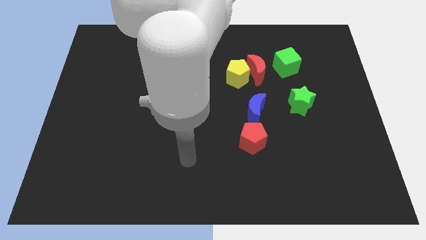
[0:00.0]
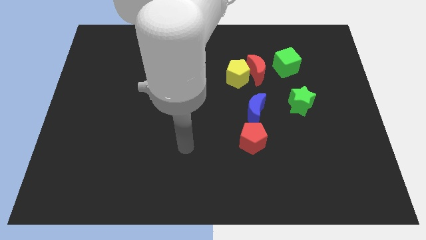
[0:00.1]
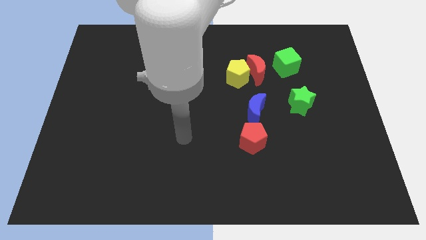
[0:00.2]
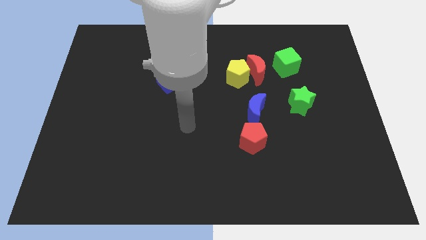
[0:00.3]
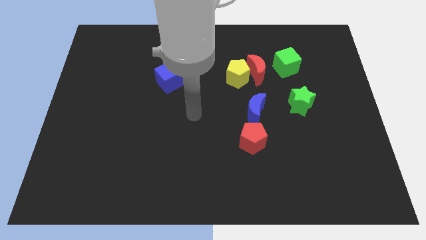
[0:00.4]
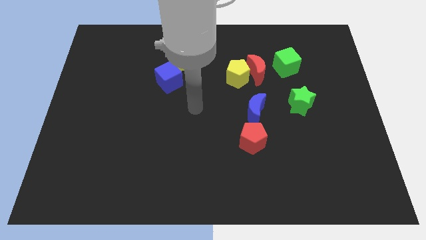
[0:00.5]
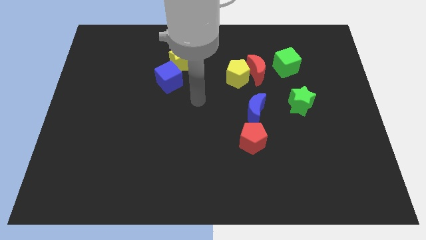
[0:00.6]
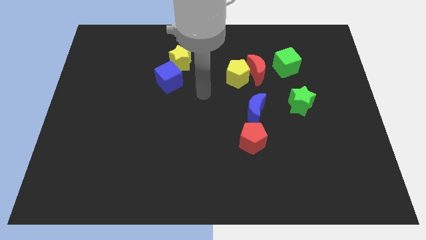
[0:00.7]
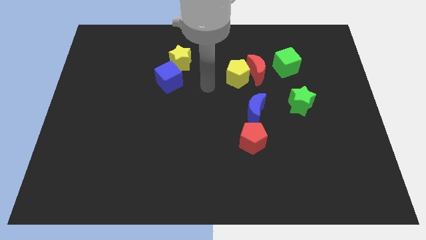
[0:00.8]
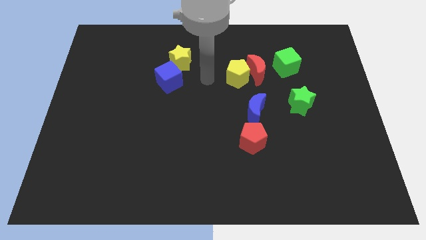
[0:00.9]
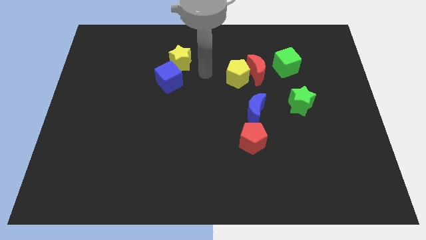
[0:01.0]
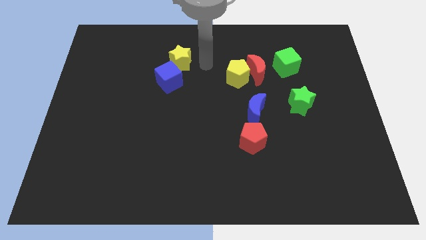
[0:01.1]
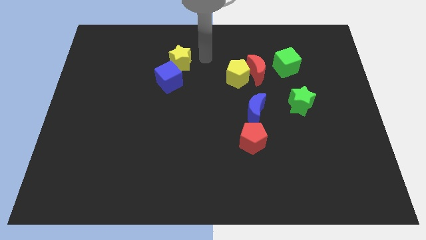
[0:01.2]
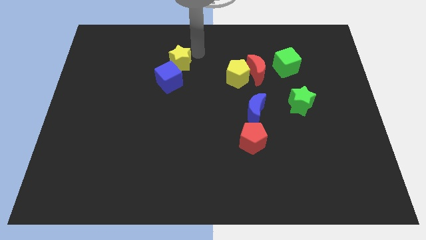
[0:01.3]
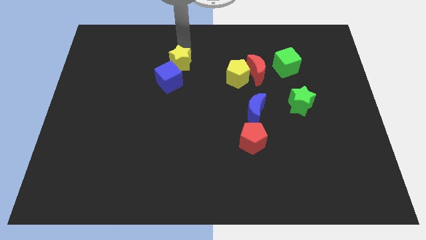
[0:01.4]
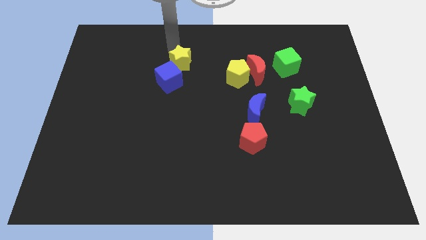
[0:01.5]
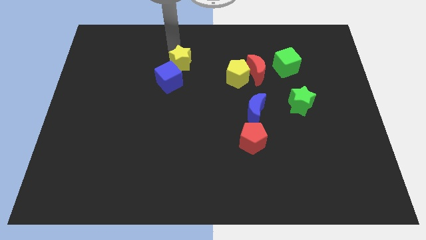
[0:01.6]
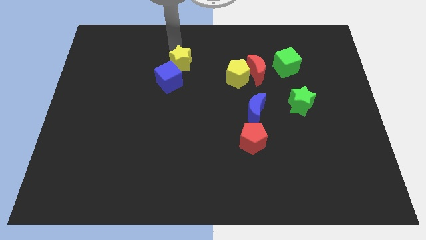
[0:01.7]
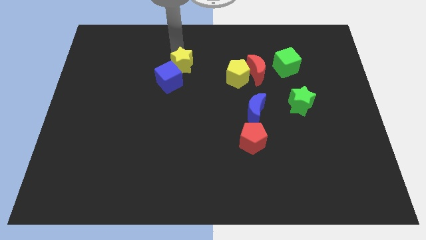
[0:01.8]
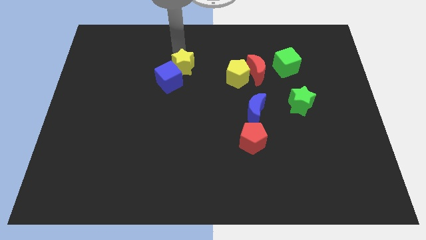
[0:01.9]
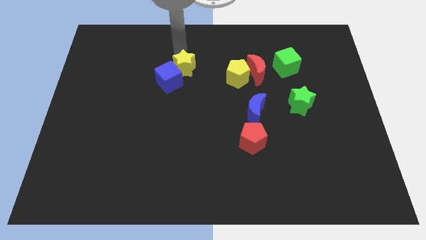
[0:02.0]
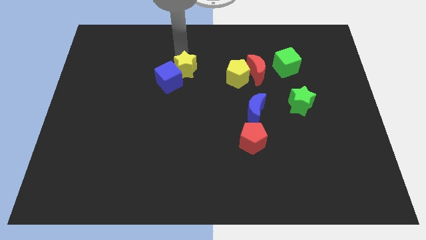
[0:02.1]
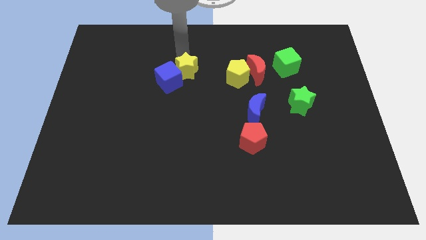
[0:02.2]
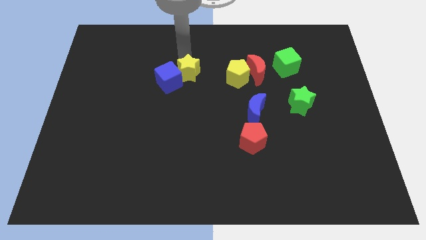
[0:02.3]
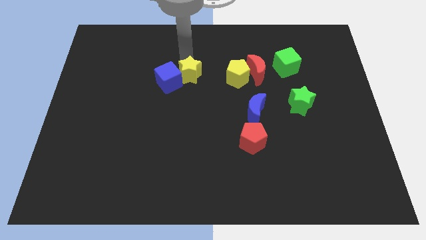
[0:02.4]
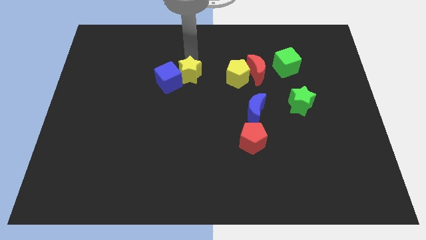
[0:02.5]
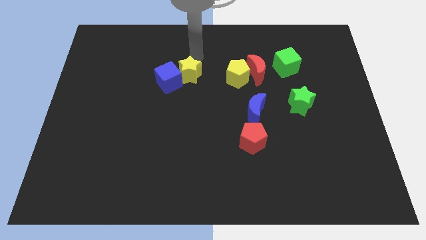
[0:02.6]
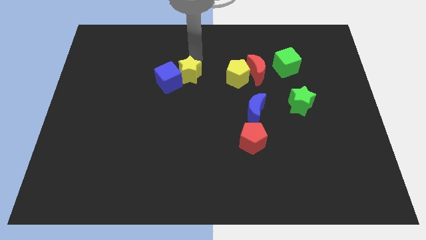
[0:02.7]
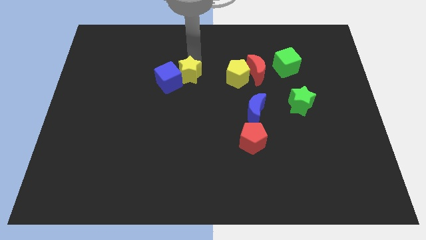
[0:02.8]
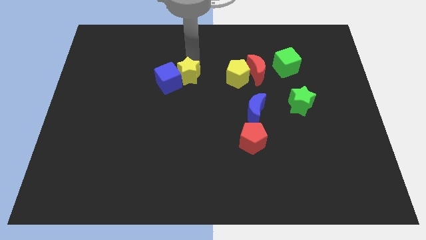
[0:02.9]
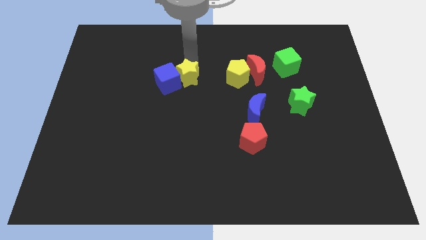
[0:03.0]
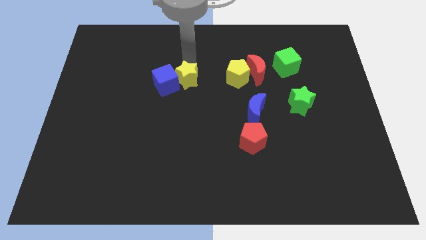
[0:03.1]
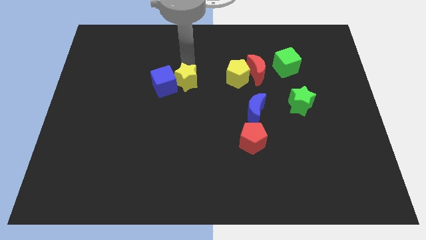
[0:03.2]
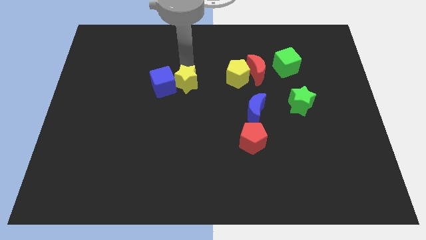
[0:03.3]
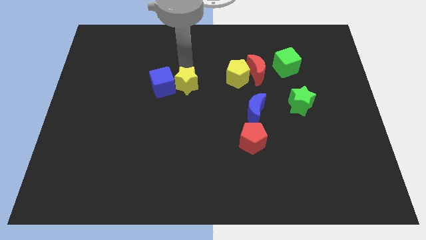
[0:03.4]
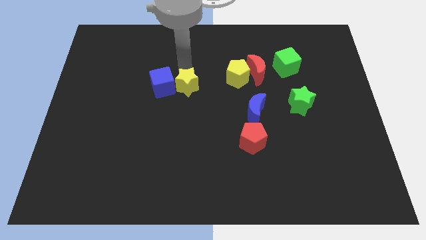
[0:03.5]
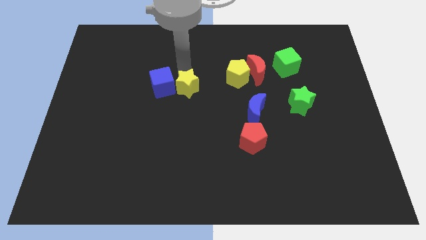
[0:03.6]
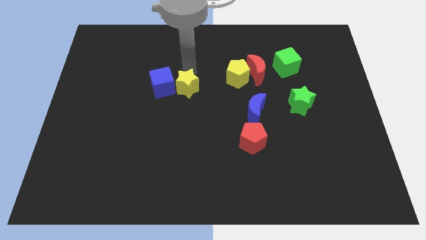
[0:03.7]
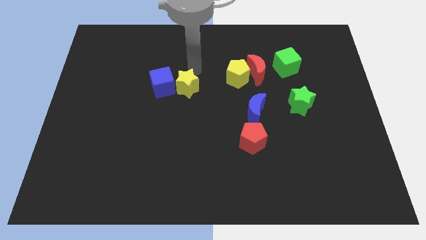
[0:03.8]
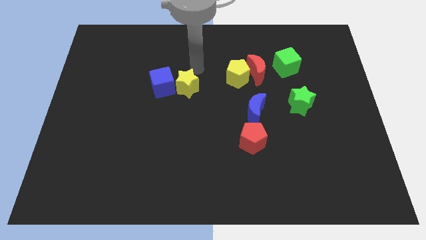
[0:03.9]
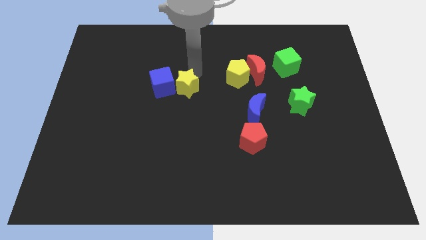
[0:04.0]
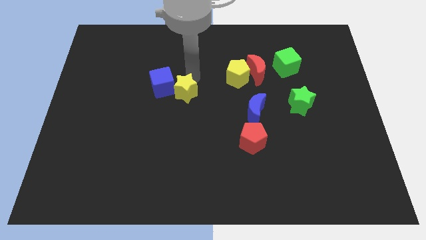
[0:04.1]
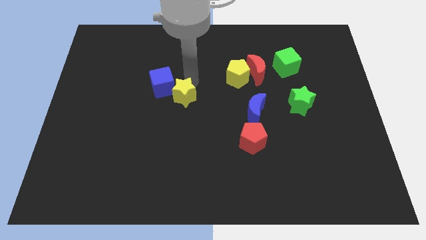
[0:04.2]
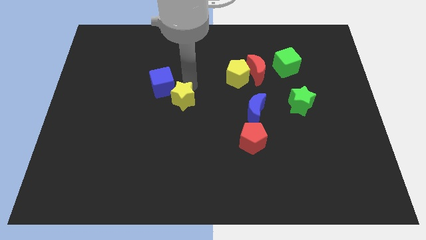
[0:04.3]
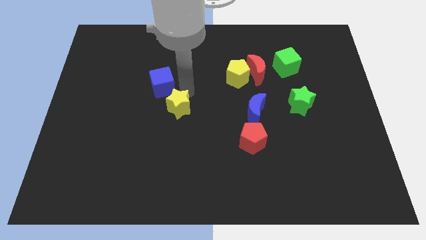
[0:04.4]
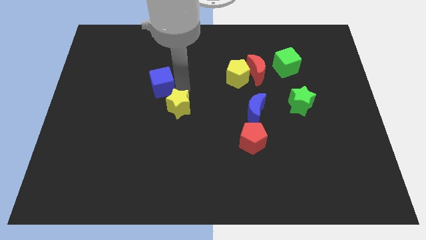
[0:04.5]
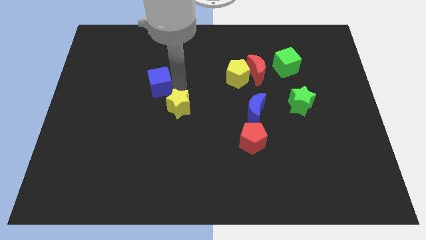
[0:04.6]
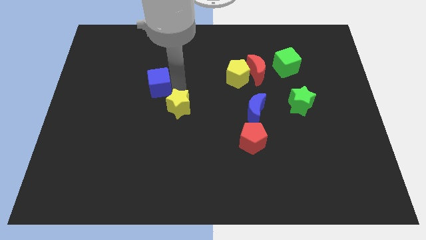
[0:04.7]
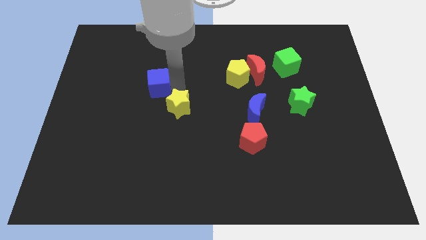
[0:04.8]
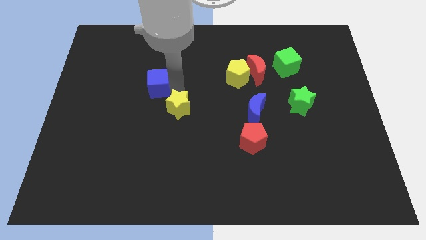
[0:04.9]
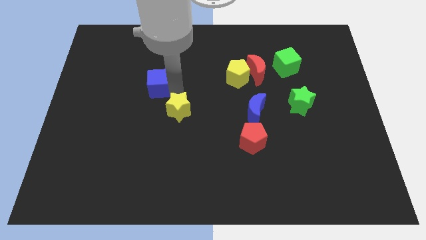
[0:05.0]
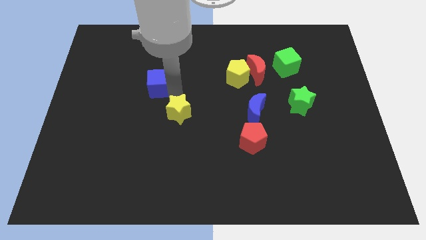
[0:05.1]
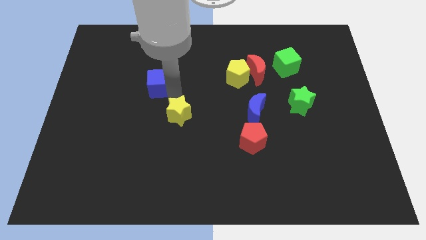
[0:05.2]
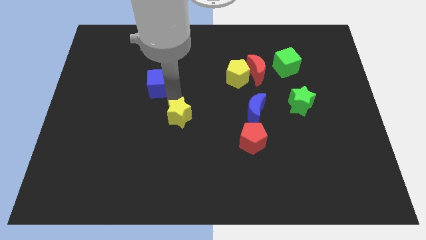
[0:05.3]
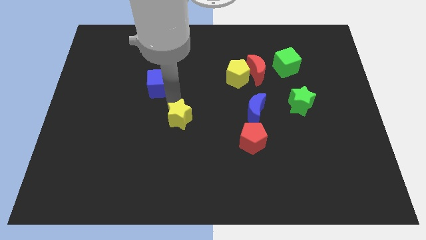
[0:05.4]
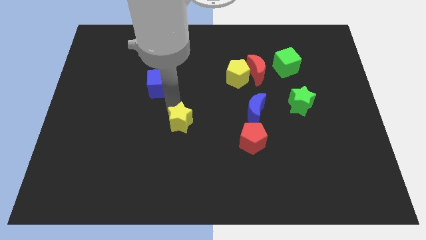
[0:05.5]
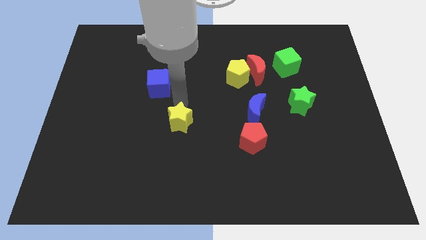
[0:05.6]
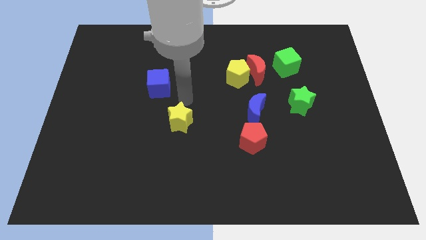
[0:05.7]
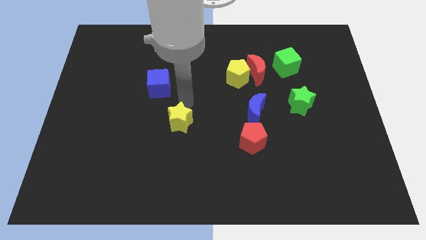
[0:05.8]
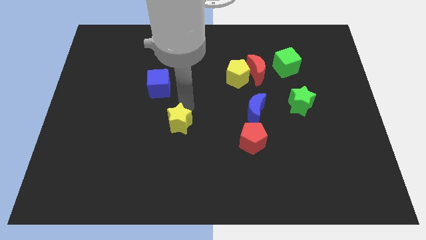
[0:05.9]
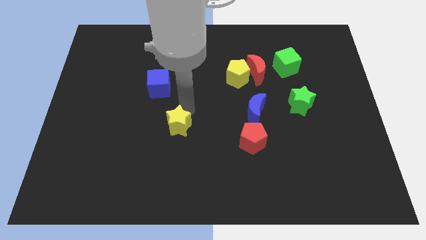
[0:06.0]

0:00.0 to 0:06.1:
slide the yellow star down

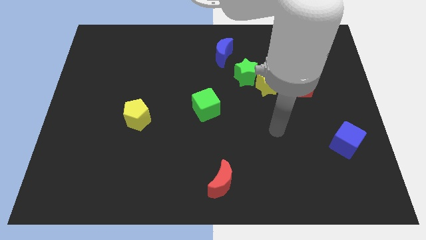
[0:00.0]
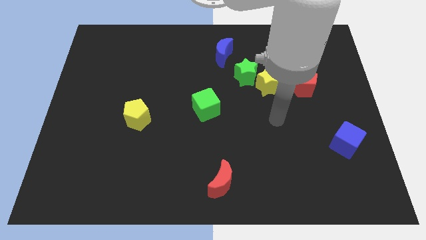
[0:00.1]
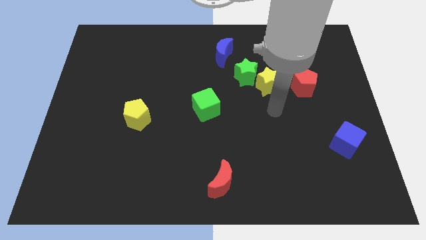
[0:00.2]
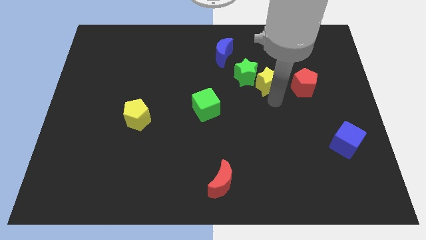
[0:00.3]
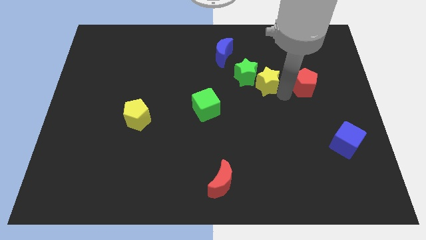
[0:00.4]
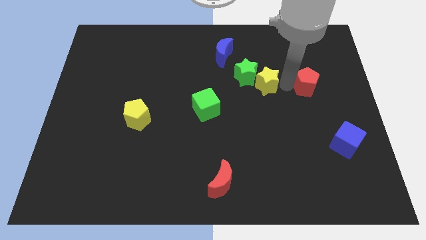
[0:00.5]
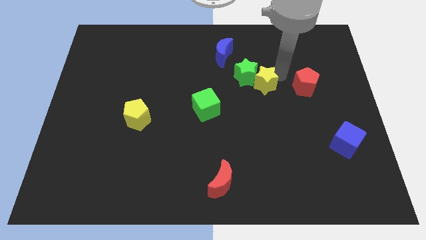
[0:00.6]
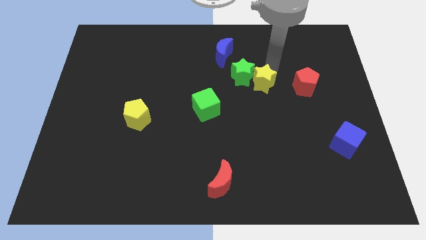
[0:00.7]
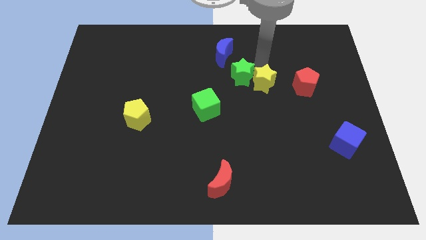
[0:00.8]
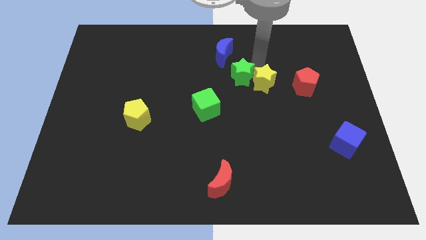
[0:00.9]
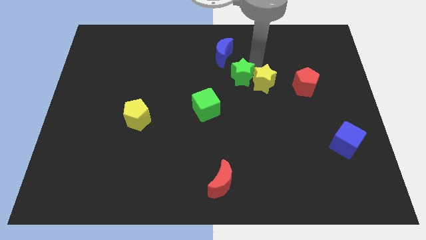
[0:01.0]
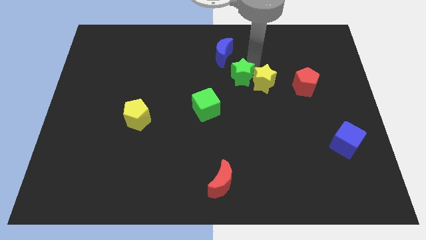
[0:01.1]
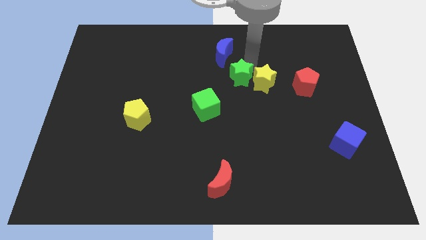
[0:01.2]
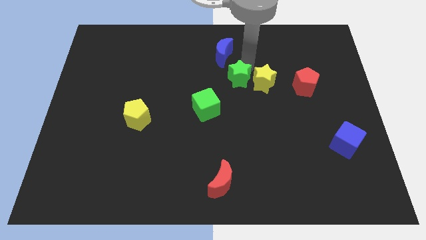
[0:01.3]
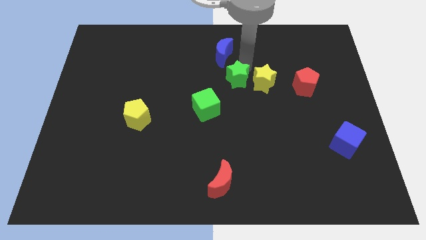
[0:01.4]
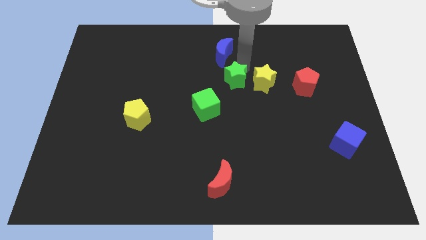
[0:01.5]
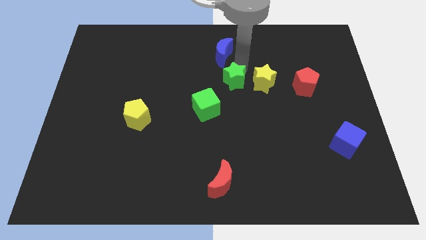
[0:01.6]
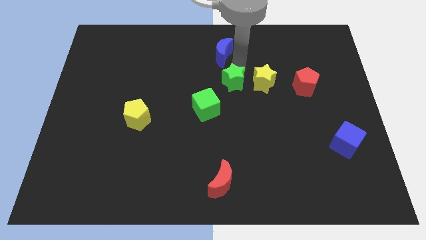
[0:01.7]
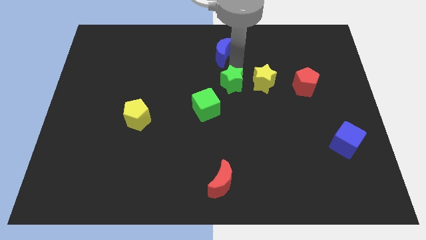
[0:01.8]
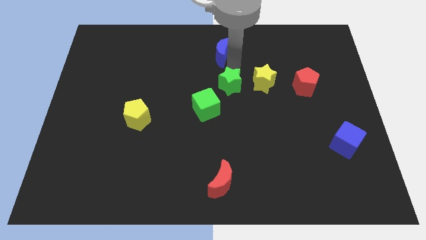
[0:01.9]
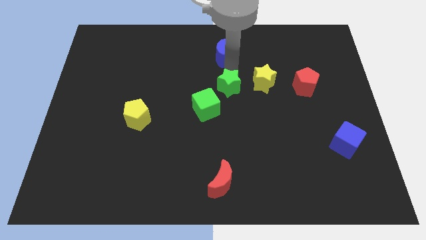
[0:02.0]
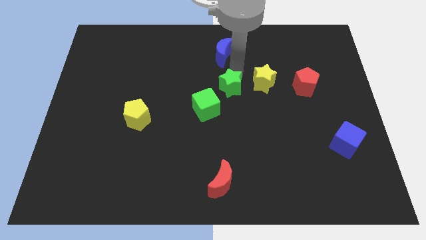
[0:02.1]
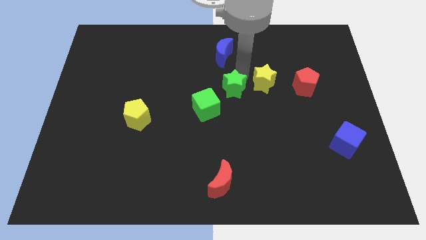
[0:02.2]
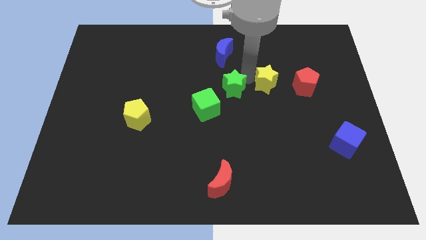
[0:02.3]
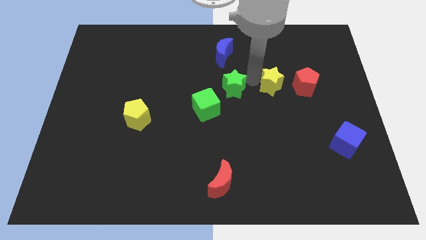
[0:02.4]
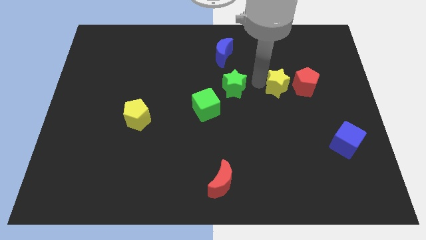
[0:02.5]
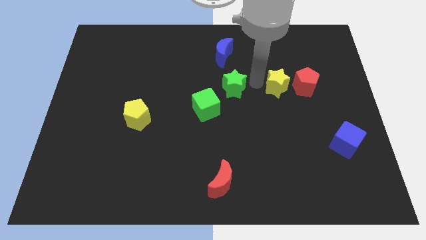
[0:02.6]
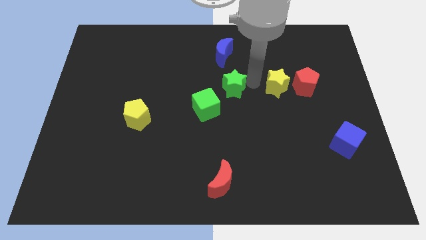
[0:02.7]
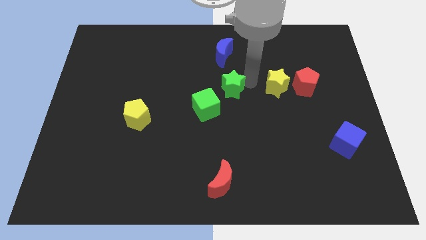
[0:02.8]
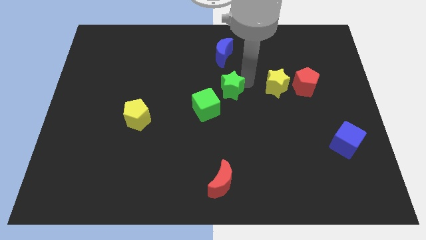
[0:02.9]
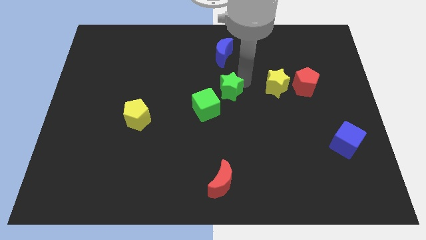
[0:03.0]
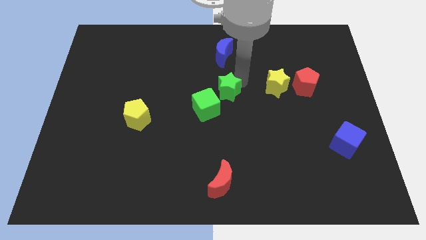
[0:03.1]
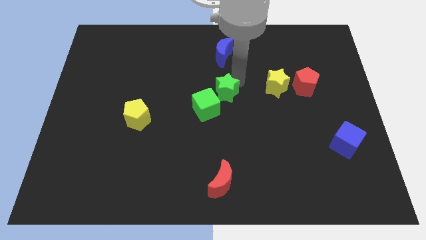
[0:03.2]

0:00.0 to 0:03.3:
move the green star downwards and to the left a little
